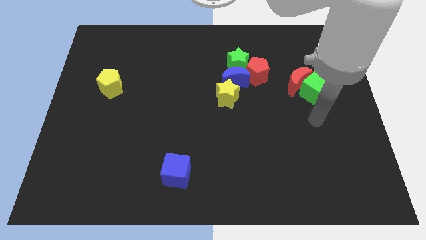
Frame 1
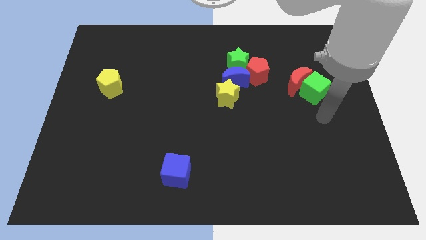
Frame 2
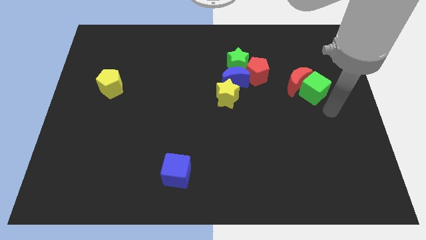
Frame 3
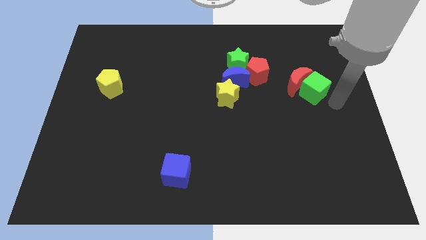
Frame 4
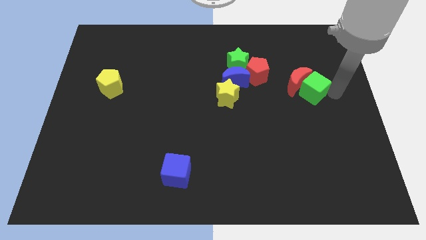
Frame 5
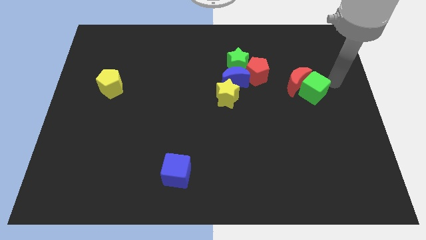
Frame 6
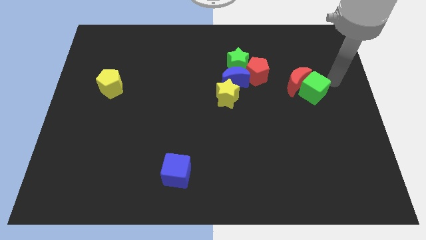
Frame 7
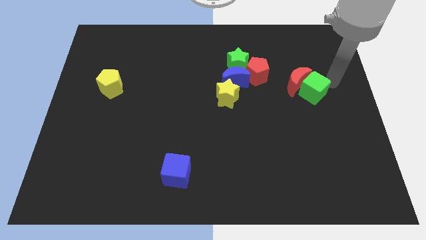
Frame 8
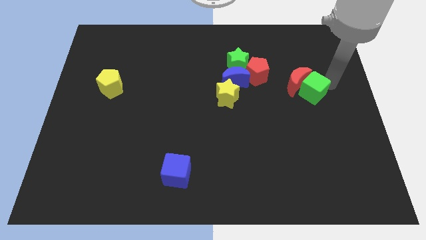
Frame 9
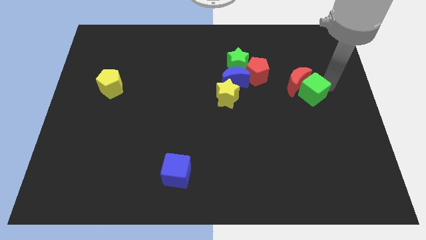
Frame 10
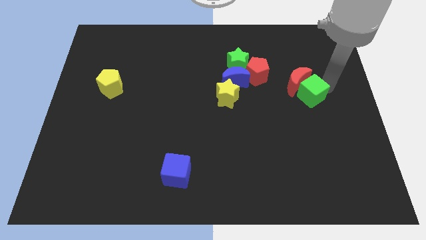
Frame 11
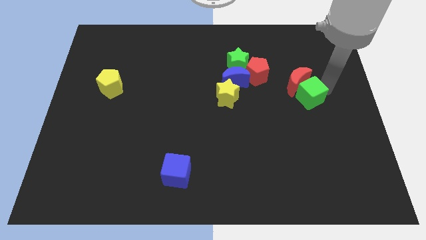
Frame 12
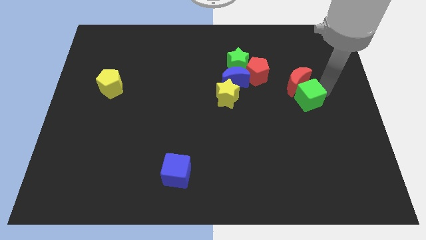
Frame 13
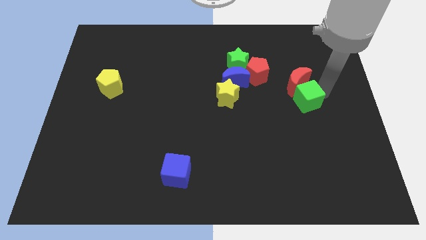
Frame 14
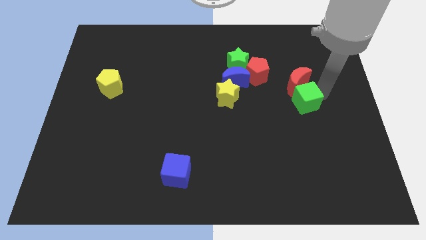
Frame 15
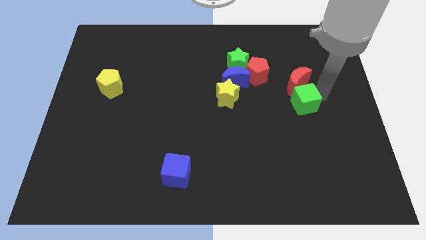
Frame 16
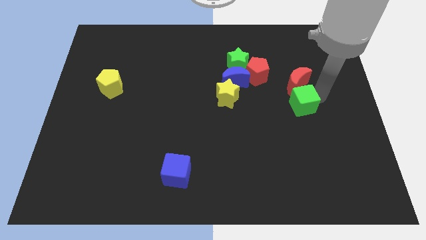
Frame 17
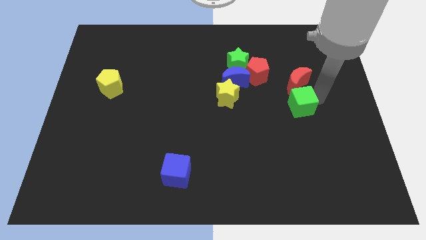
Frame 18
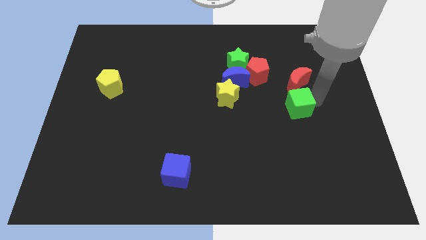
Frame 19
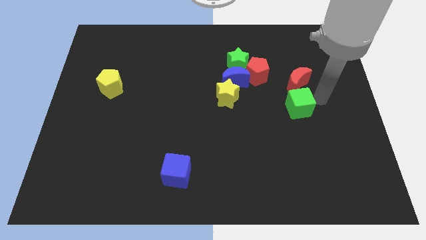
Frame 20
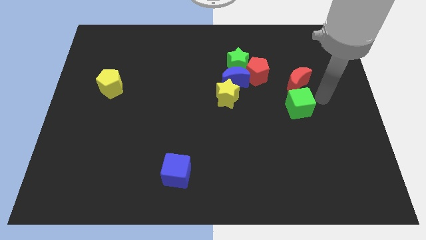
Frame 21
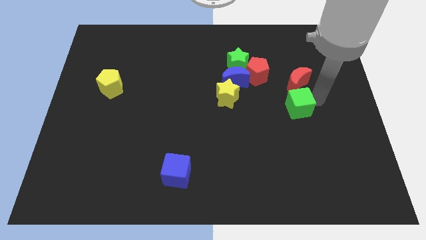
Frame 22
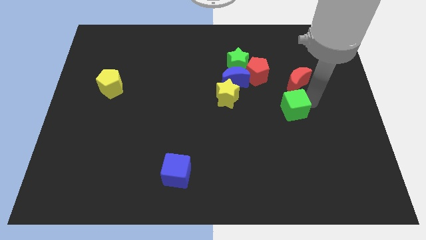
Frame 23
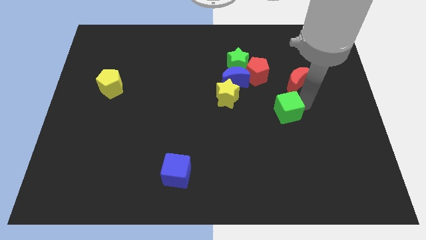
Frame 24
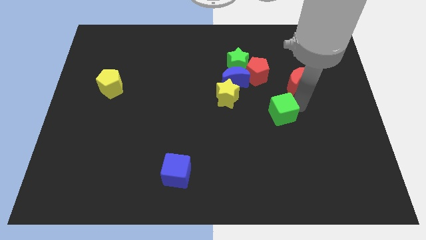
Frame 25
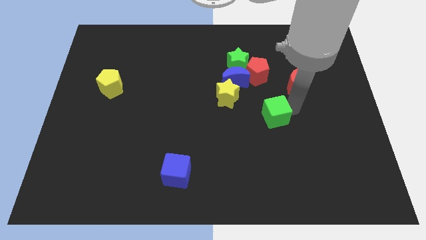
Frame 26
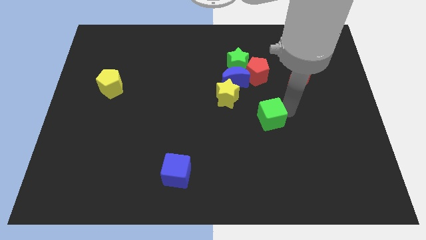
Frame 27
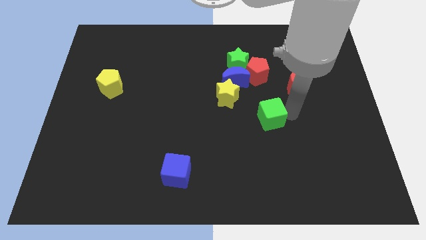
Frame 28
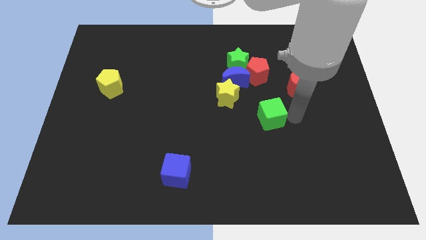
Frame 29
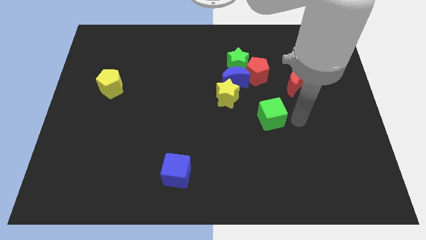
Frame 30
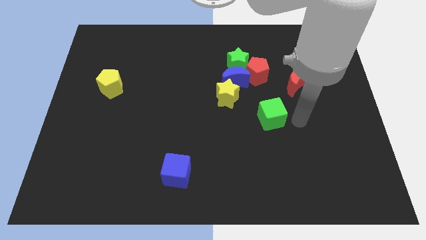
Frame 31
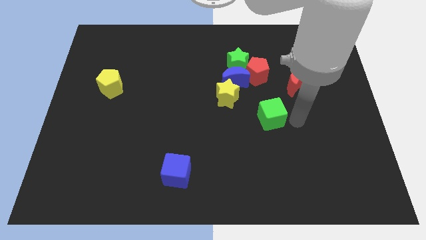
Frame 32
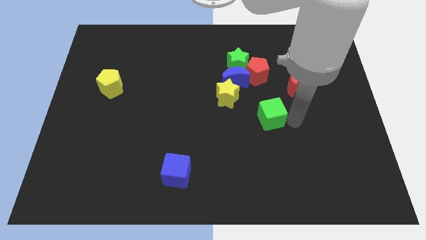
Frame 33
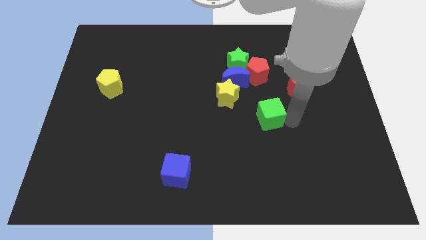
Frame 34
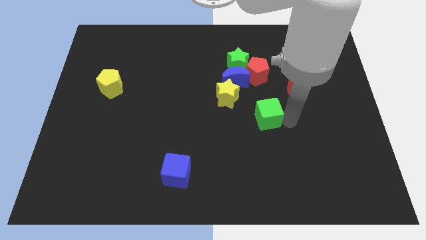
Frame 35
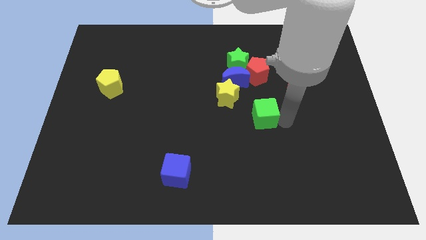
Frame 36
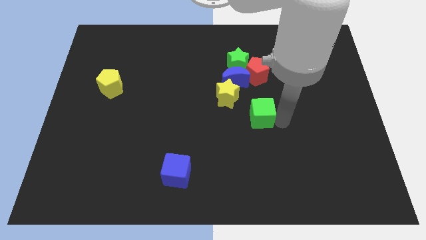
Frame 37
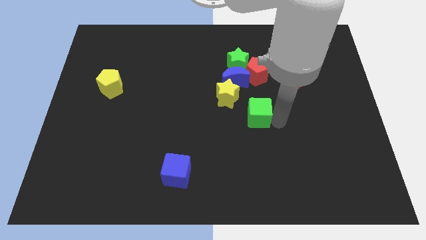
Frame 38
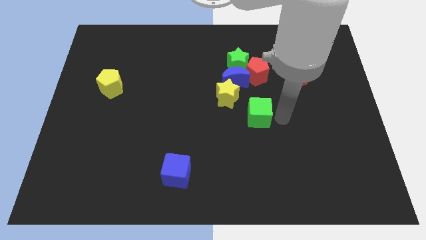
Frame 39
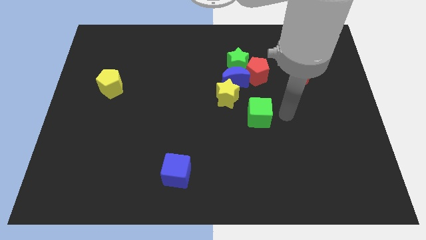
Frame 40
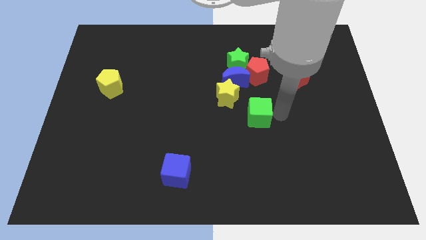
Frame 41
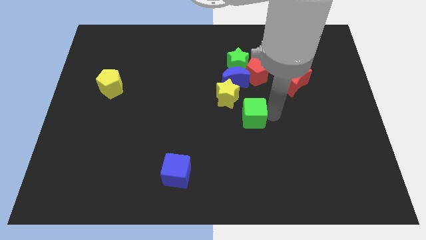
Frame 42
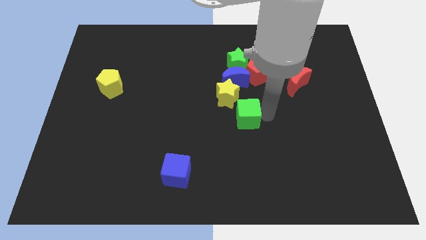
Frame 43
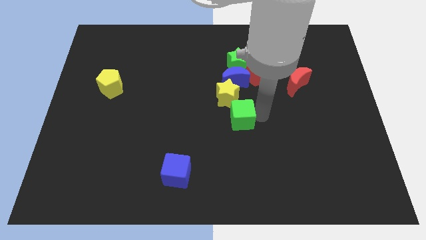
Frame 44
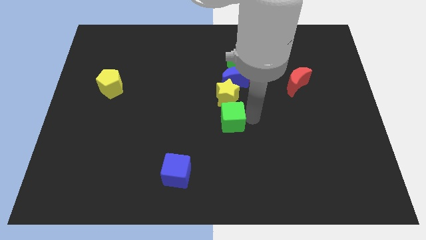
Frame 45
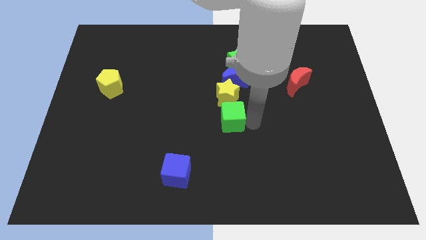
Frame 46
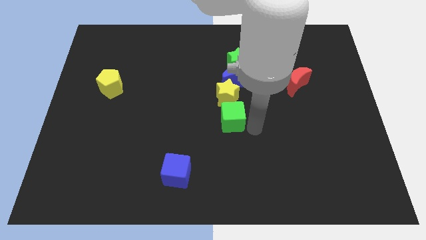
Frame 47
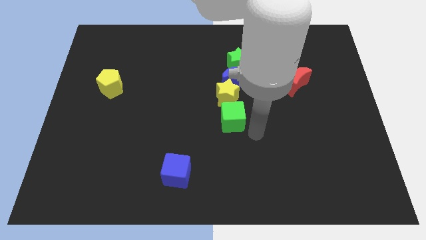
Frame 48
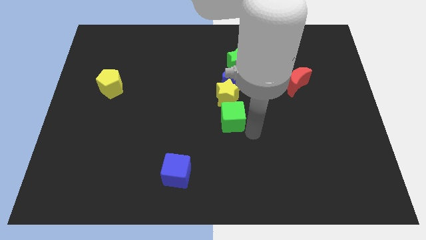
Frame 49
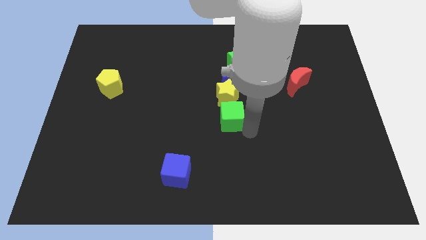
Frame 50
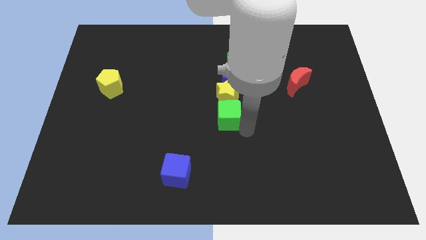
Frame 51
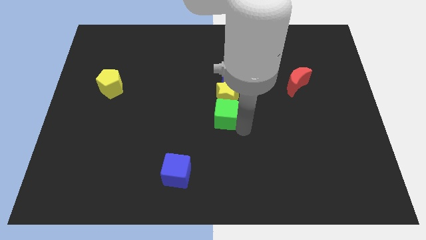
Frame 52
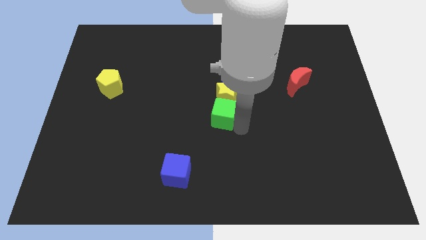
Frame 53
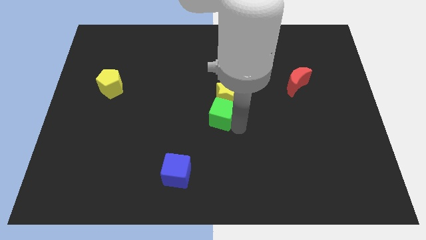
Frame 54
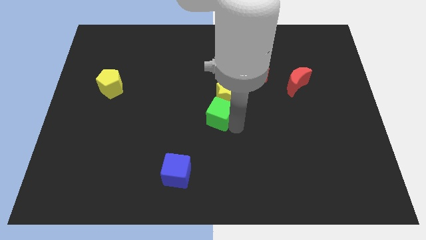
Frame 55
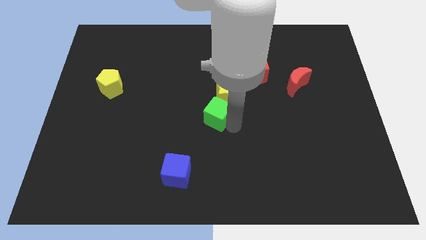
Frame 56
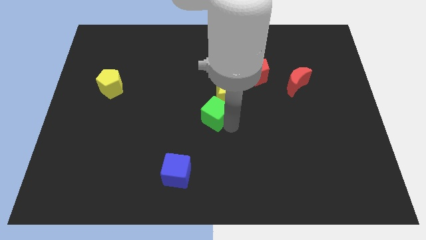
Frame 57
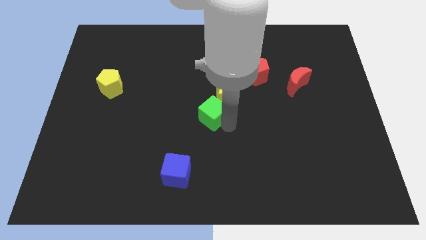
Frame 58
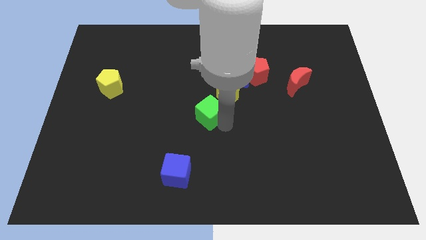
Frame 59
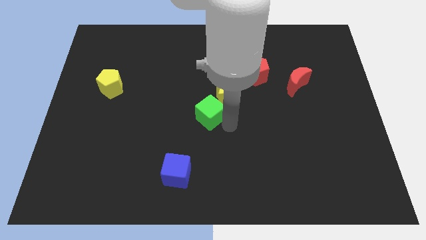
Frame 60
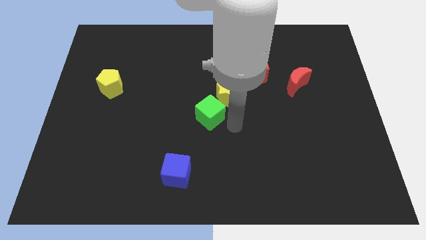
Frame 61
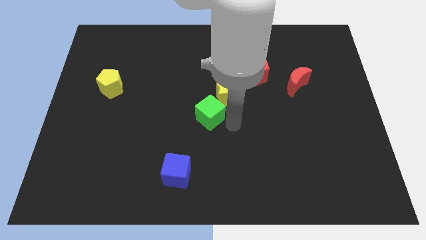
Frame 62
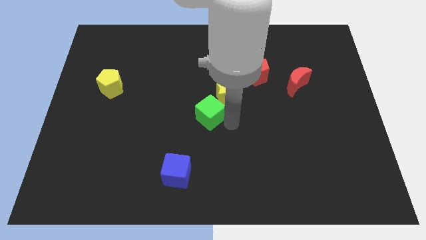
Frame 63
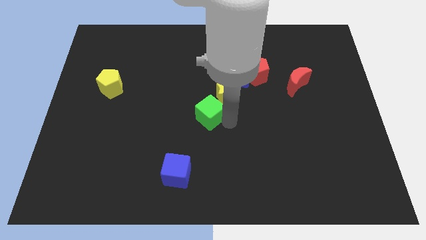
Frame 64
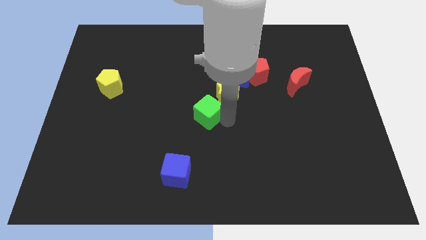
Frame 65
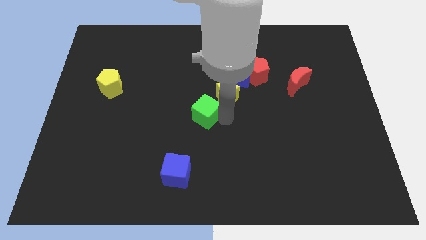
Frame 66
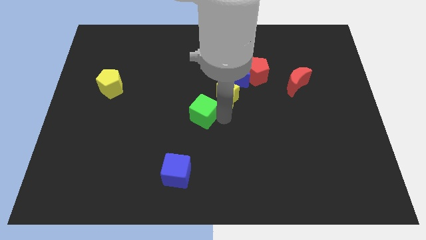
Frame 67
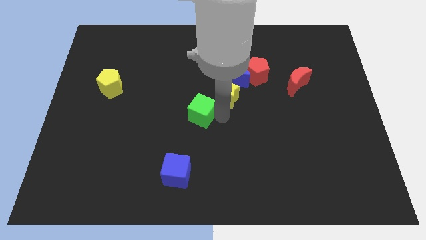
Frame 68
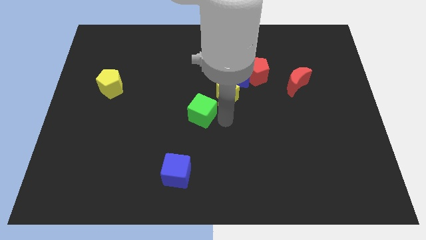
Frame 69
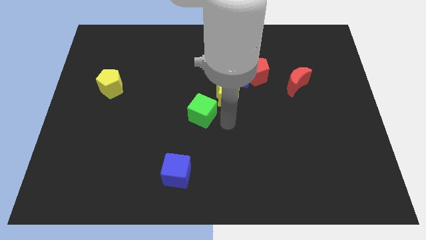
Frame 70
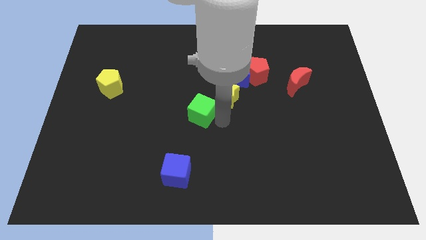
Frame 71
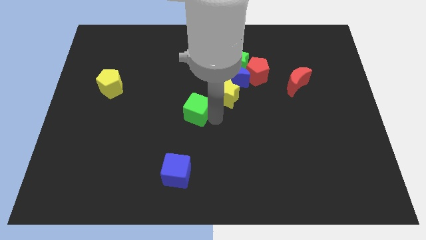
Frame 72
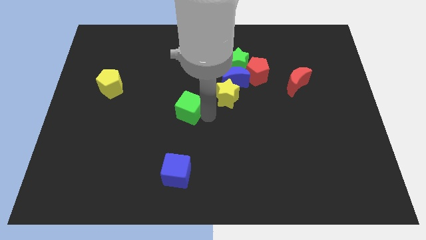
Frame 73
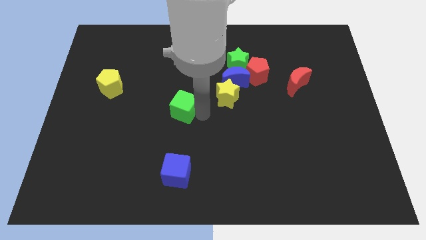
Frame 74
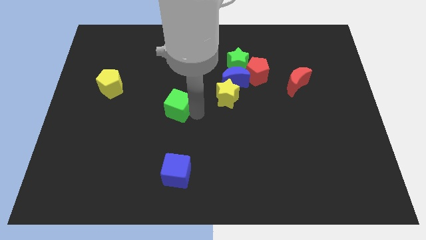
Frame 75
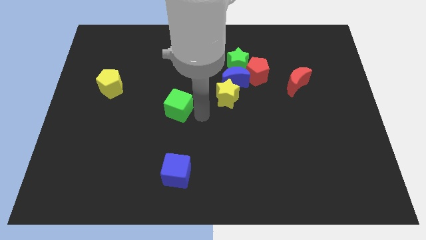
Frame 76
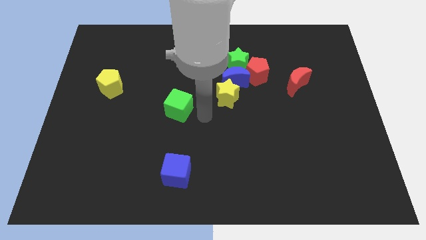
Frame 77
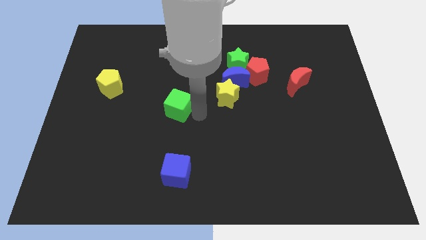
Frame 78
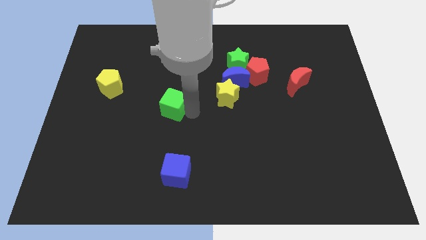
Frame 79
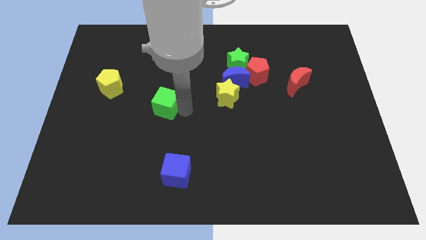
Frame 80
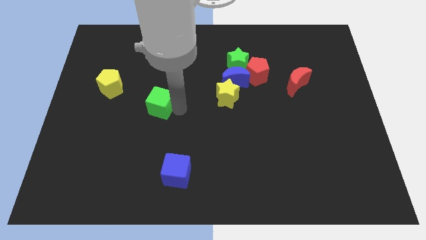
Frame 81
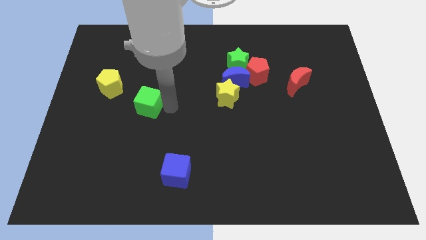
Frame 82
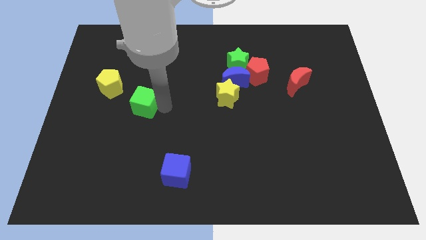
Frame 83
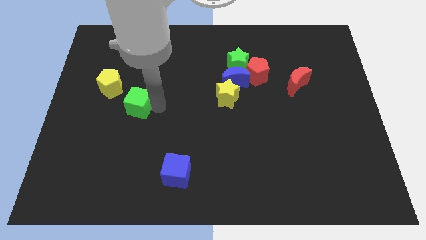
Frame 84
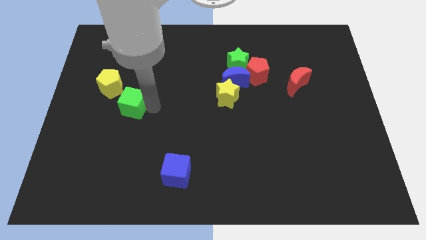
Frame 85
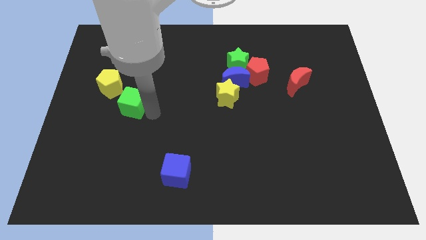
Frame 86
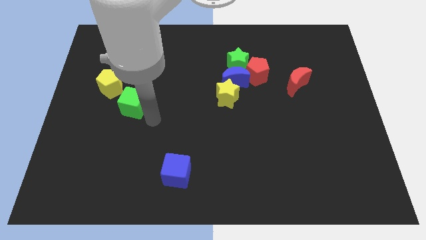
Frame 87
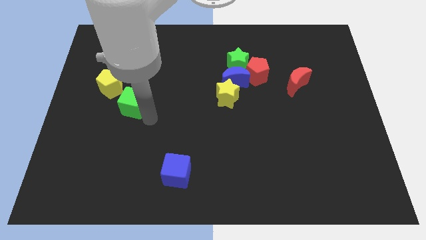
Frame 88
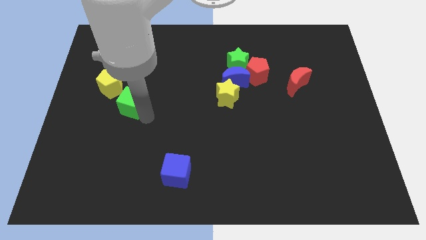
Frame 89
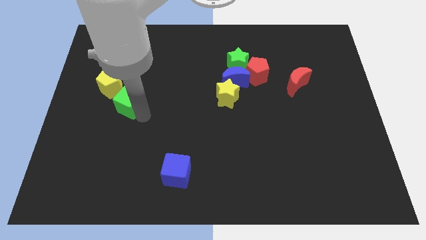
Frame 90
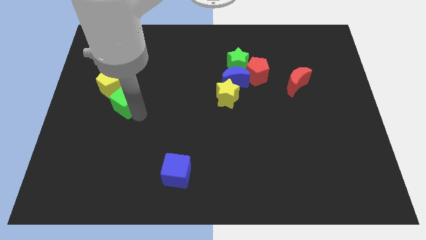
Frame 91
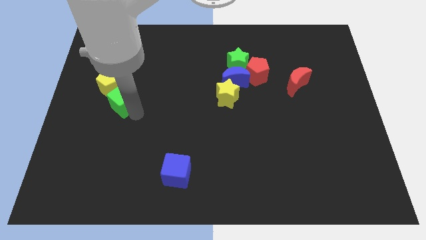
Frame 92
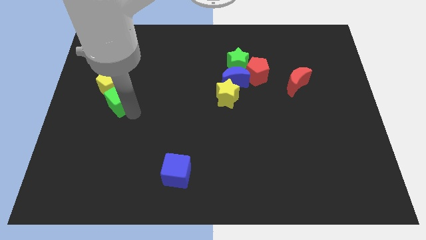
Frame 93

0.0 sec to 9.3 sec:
push the green cube next to the yellow pentagon
